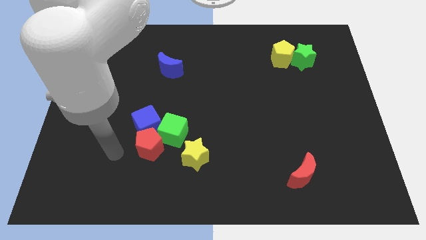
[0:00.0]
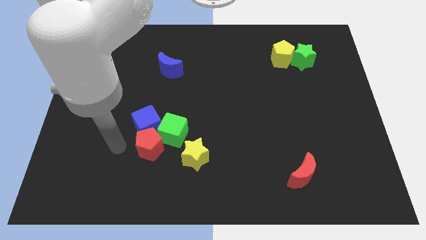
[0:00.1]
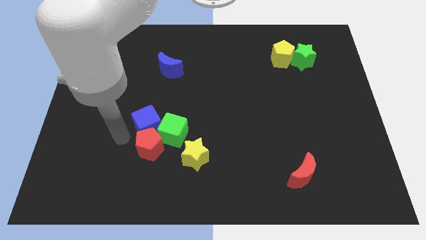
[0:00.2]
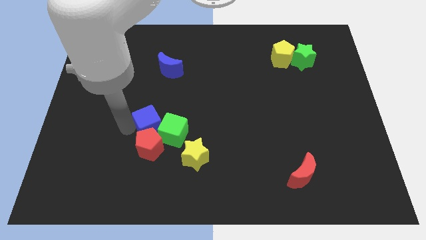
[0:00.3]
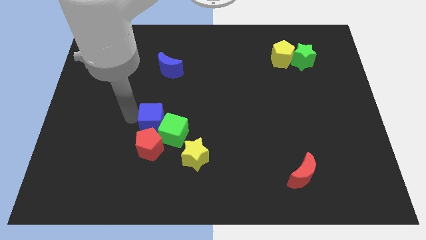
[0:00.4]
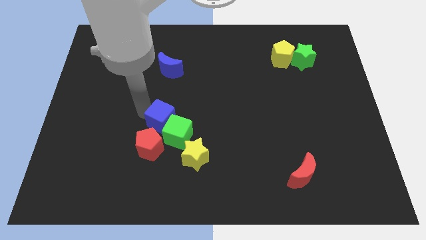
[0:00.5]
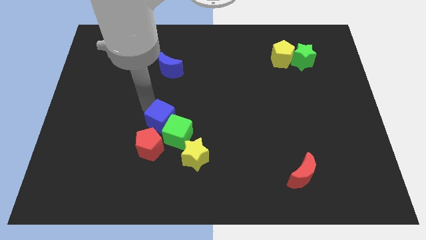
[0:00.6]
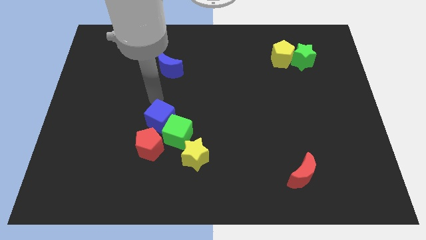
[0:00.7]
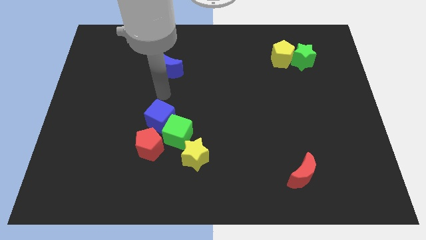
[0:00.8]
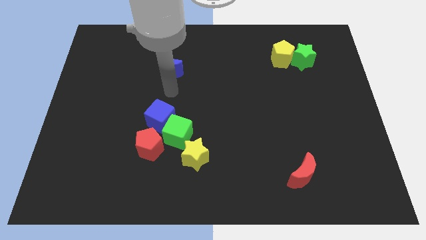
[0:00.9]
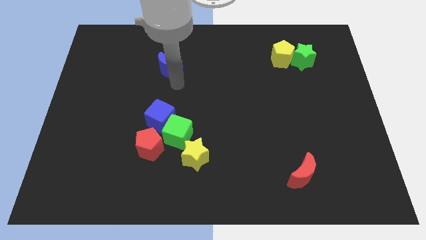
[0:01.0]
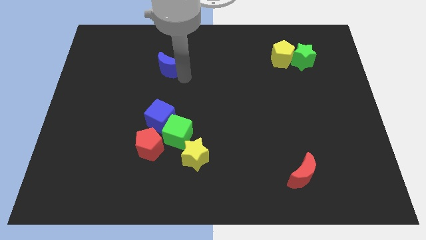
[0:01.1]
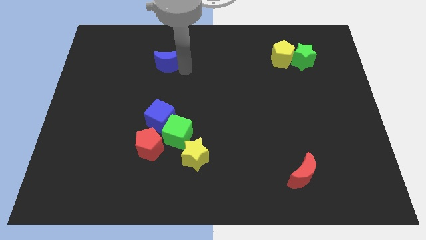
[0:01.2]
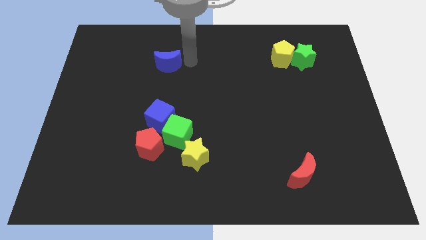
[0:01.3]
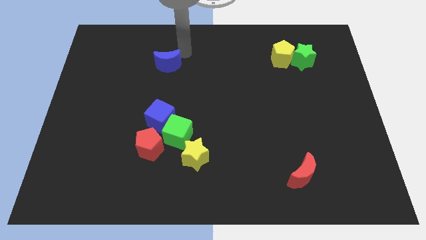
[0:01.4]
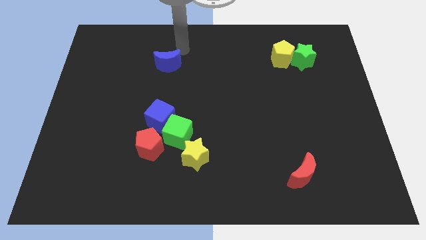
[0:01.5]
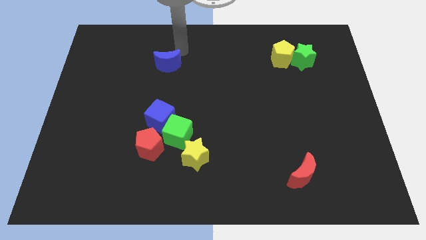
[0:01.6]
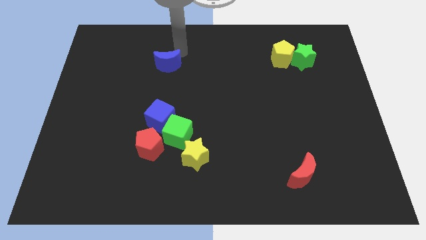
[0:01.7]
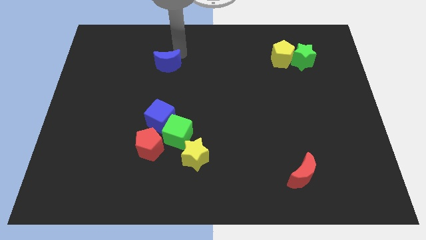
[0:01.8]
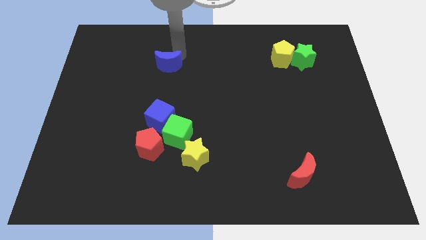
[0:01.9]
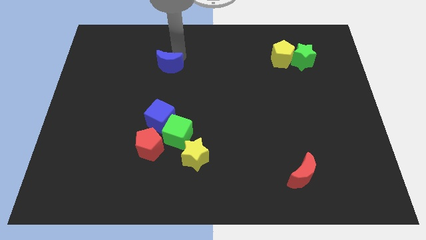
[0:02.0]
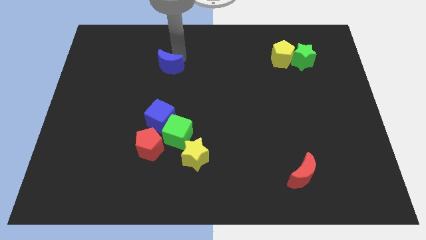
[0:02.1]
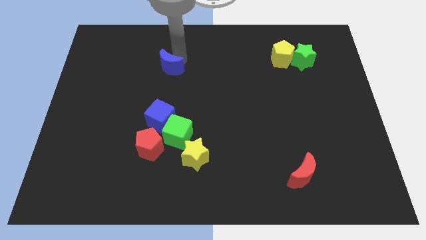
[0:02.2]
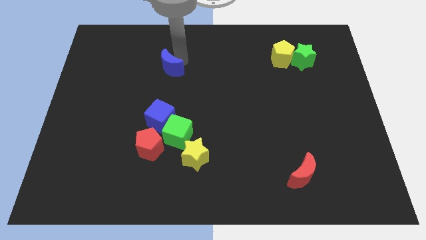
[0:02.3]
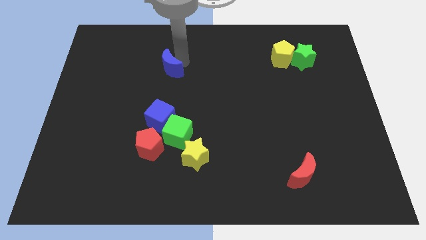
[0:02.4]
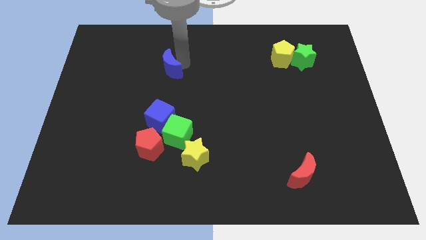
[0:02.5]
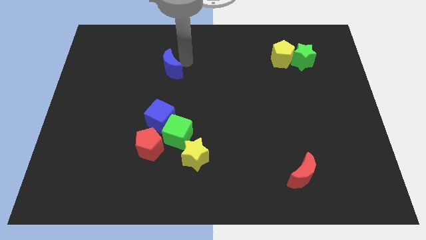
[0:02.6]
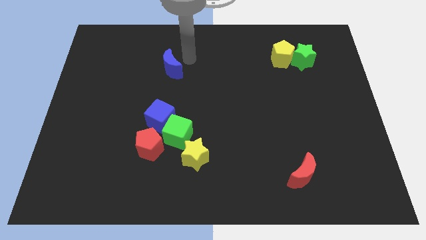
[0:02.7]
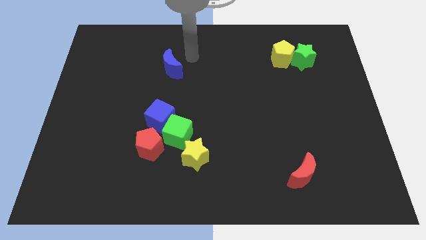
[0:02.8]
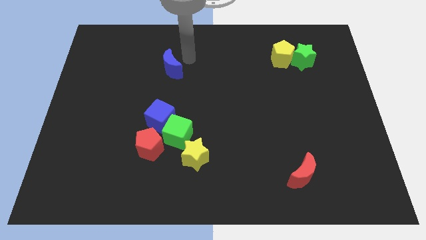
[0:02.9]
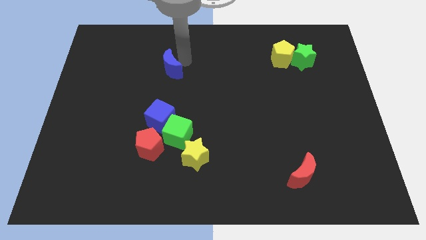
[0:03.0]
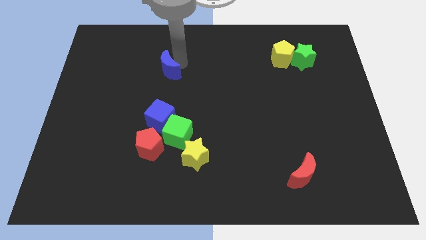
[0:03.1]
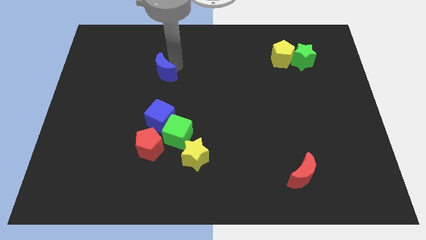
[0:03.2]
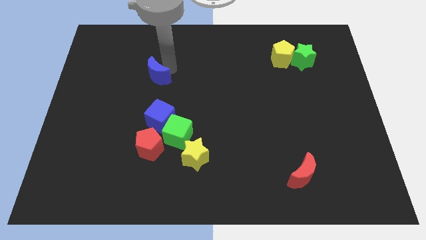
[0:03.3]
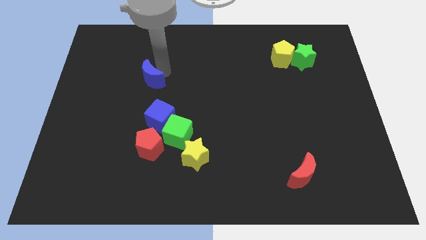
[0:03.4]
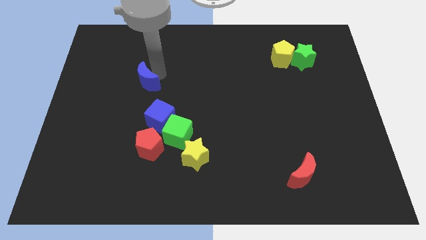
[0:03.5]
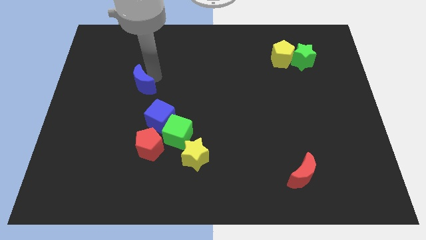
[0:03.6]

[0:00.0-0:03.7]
slightly push the blue moon diagonally down and to the left

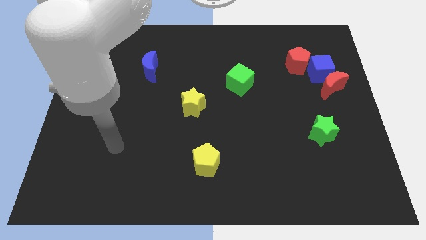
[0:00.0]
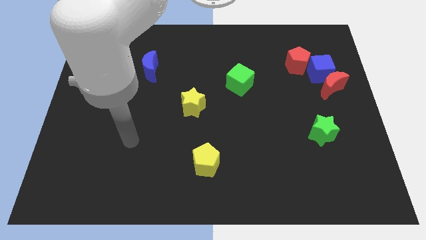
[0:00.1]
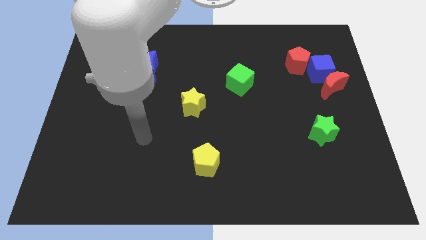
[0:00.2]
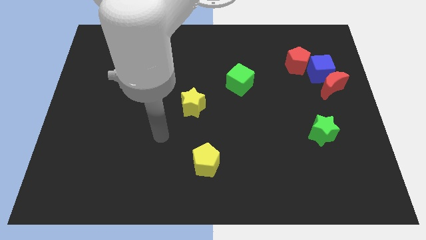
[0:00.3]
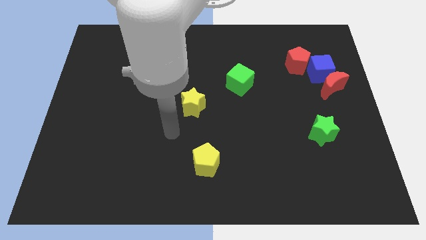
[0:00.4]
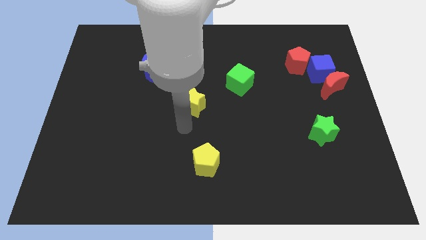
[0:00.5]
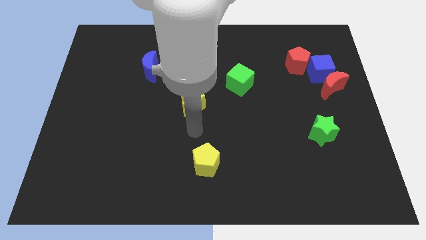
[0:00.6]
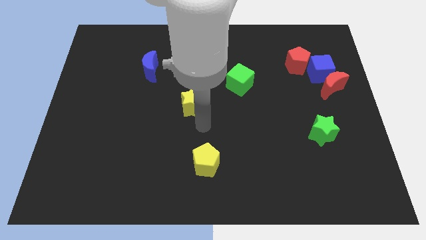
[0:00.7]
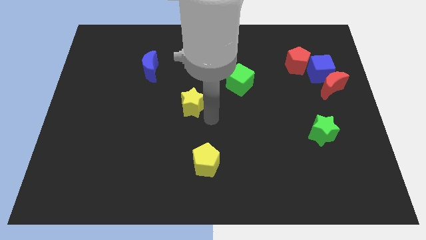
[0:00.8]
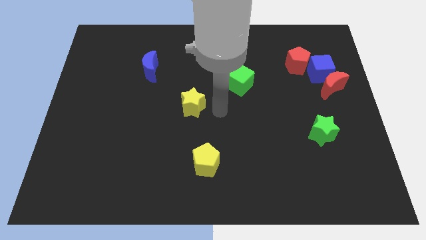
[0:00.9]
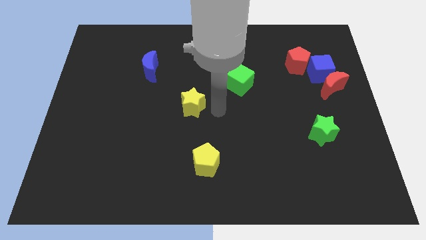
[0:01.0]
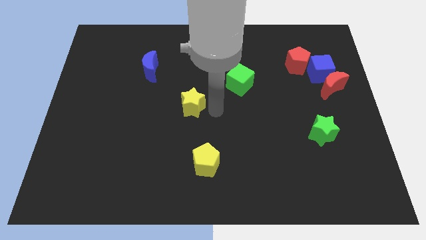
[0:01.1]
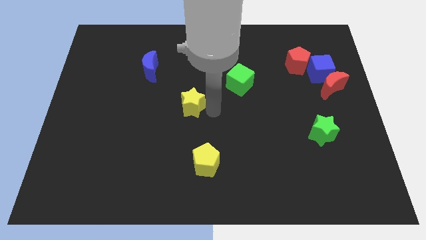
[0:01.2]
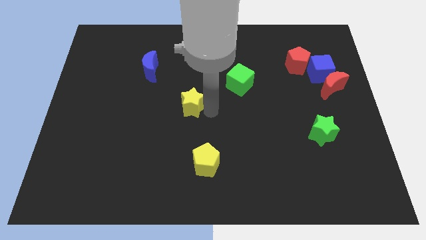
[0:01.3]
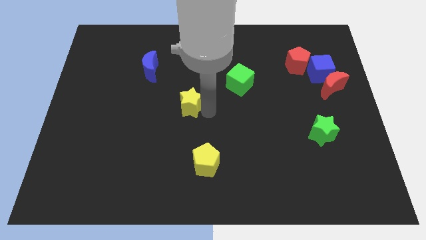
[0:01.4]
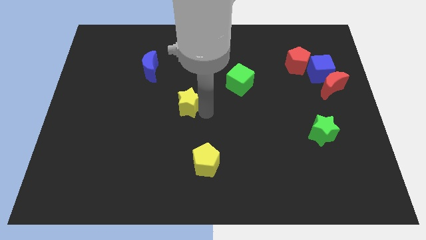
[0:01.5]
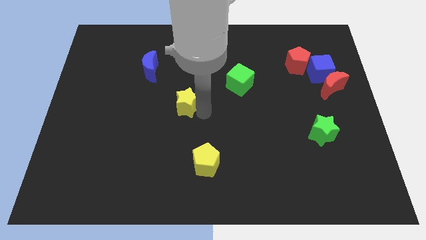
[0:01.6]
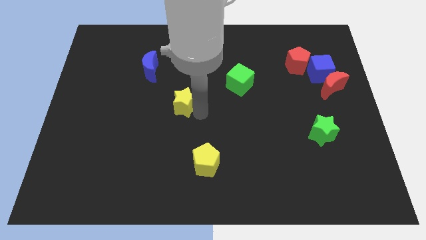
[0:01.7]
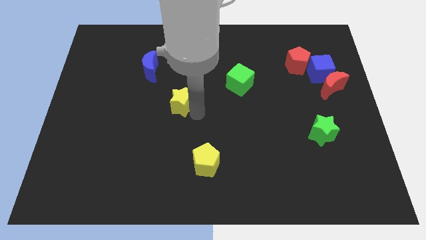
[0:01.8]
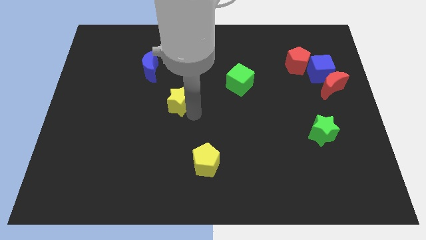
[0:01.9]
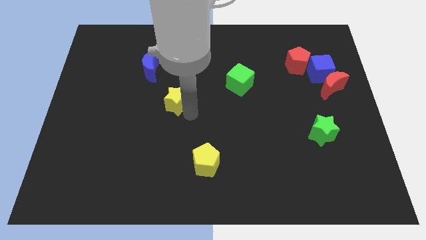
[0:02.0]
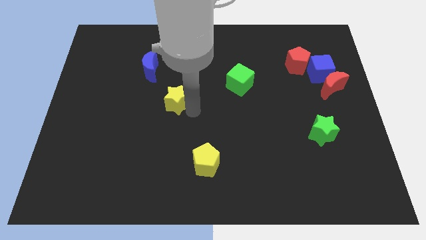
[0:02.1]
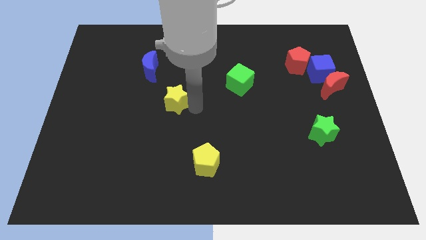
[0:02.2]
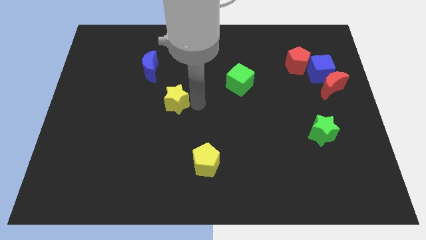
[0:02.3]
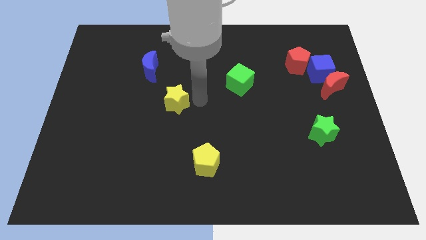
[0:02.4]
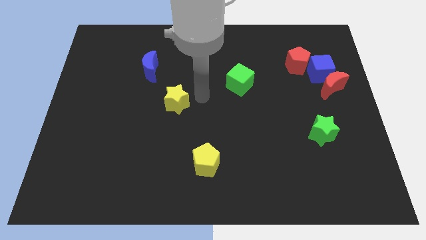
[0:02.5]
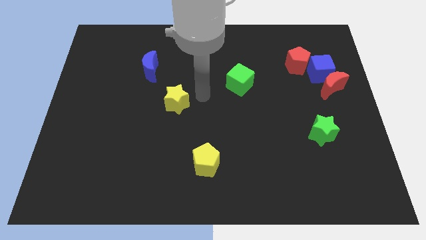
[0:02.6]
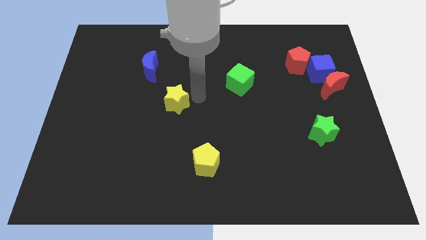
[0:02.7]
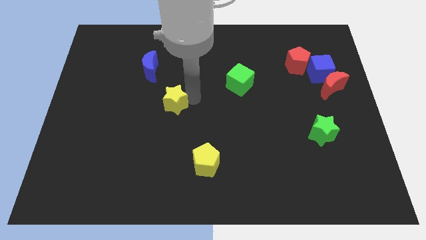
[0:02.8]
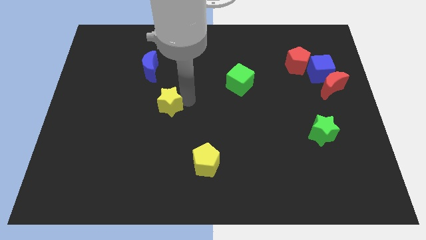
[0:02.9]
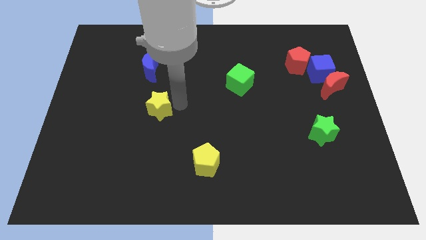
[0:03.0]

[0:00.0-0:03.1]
slightly slide the yellow star left

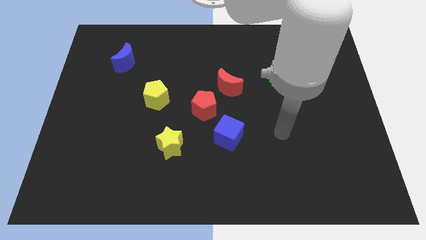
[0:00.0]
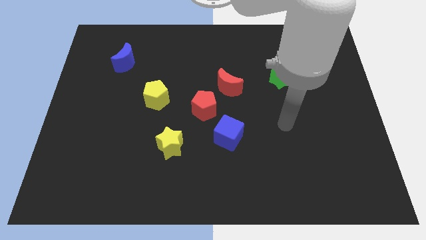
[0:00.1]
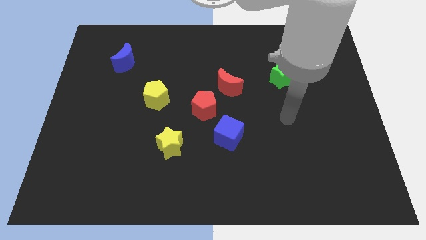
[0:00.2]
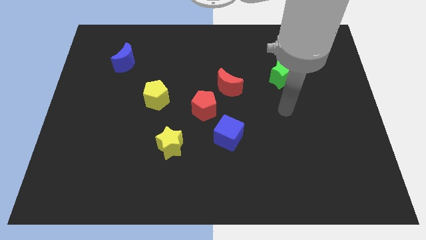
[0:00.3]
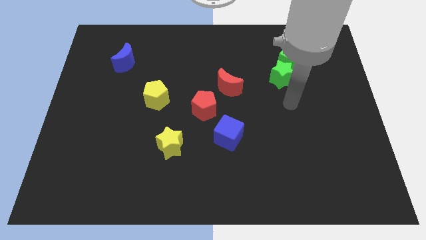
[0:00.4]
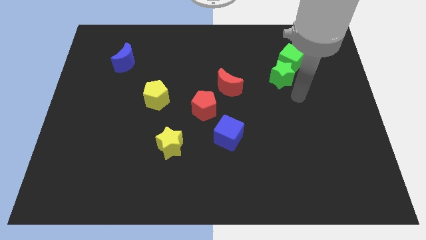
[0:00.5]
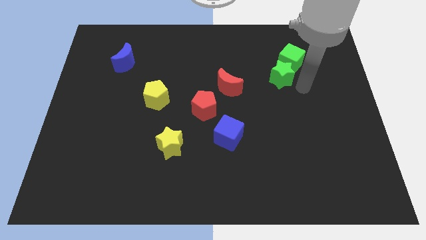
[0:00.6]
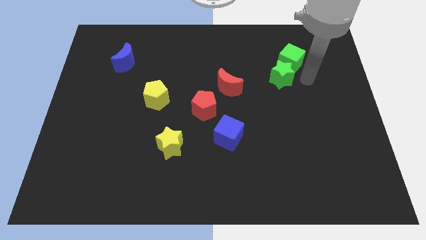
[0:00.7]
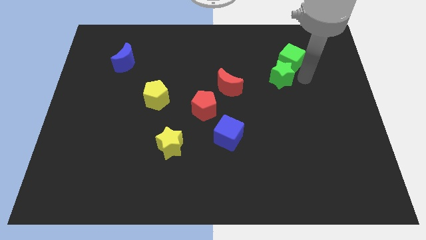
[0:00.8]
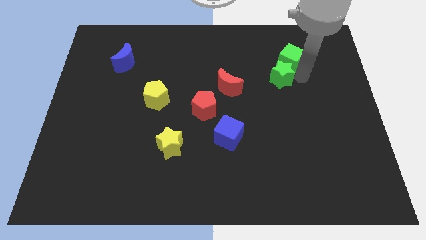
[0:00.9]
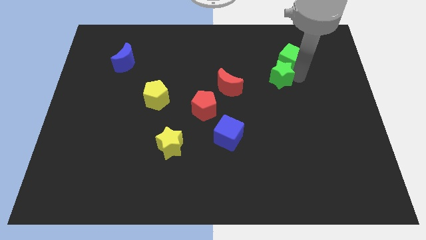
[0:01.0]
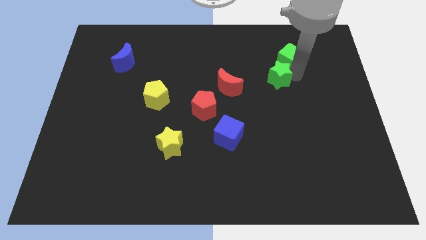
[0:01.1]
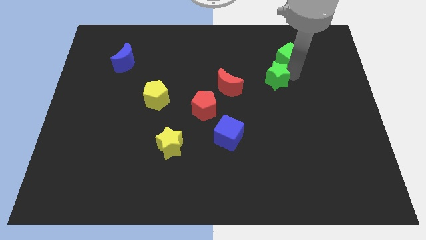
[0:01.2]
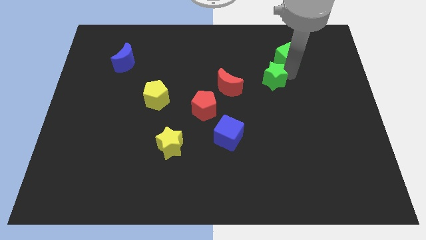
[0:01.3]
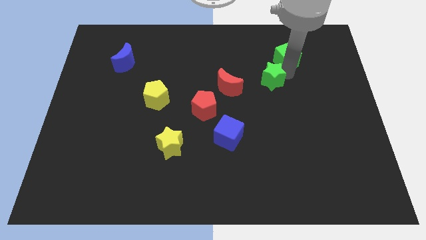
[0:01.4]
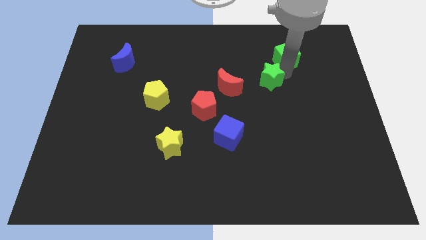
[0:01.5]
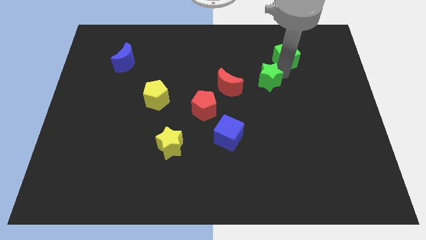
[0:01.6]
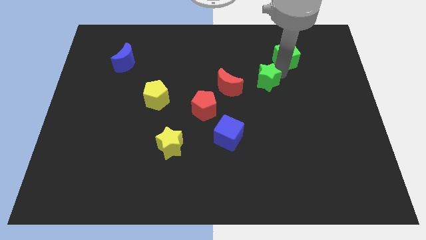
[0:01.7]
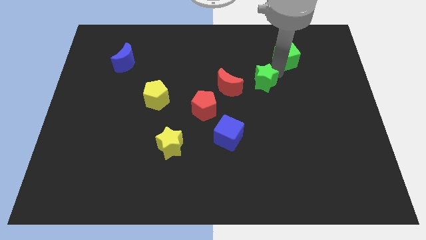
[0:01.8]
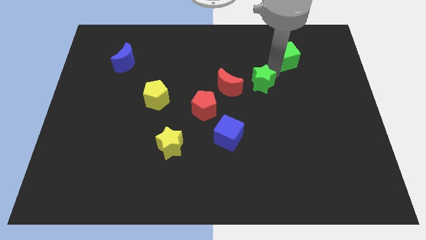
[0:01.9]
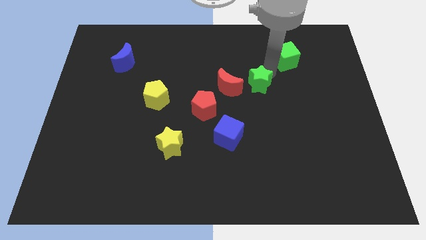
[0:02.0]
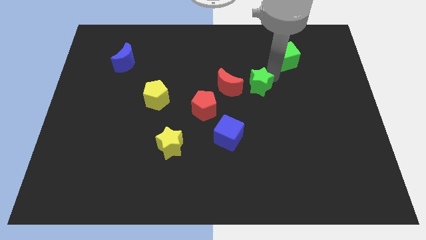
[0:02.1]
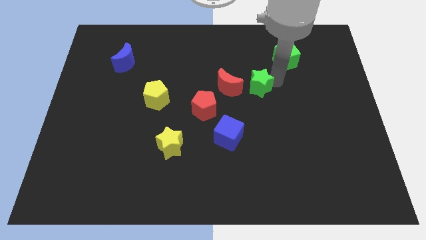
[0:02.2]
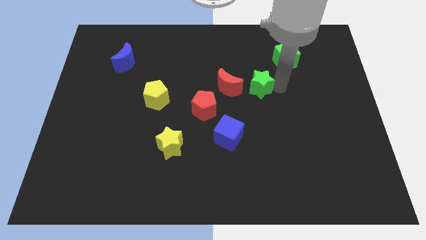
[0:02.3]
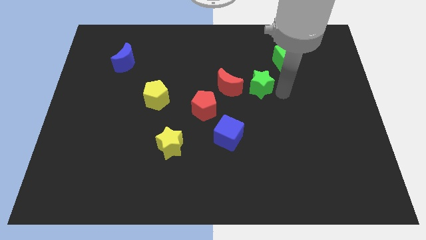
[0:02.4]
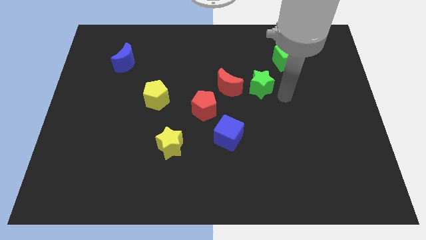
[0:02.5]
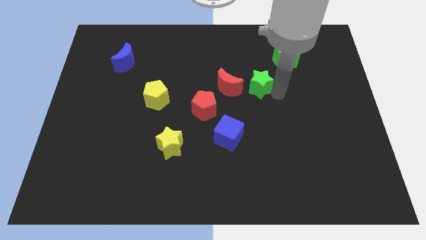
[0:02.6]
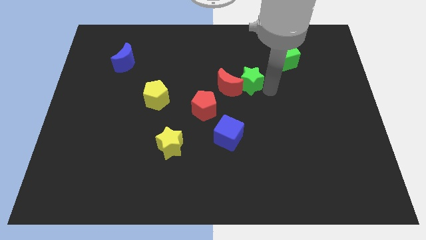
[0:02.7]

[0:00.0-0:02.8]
push the green star to the left a little bit
